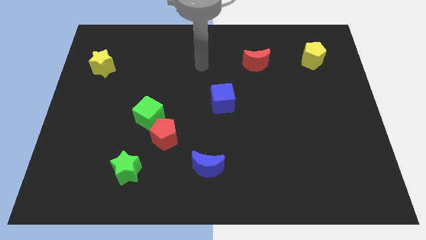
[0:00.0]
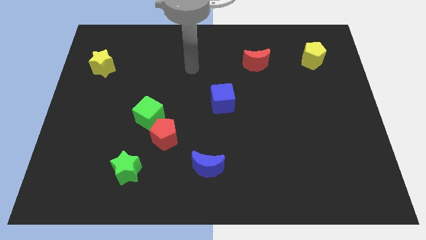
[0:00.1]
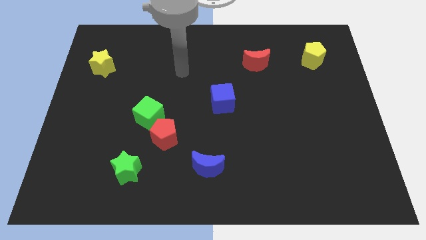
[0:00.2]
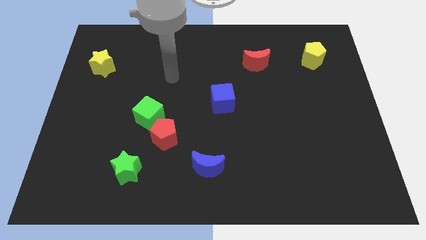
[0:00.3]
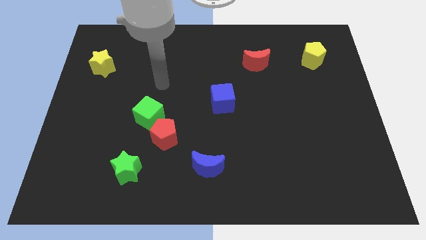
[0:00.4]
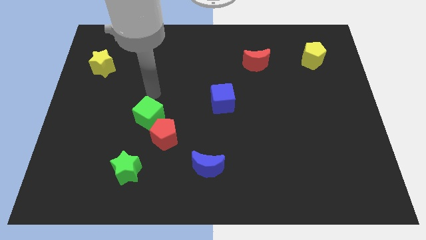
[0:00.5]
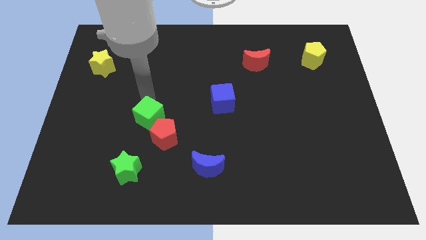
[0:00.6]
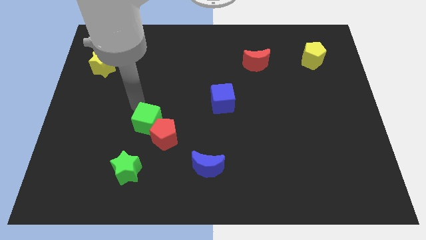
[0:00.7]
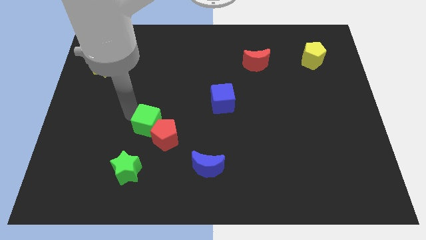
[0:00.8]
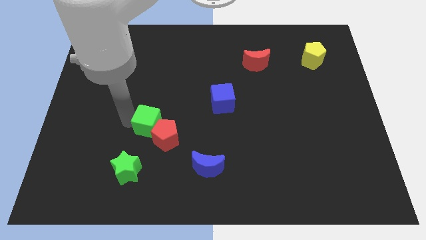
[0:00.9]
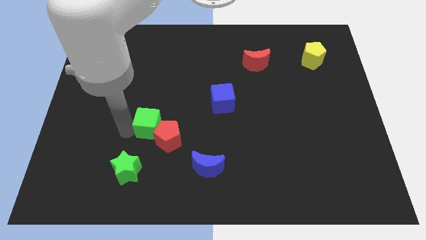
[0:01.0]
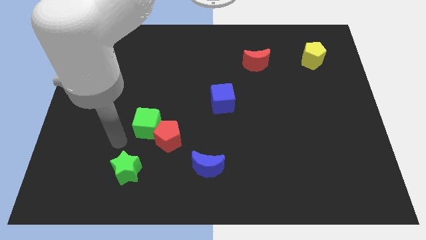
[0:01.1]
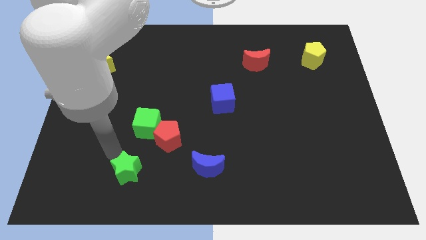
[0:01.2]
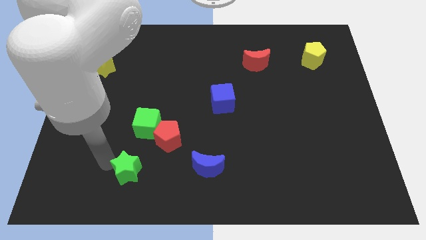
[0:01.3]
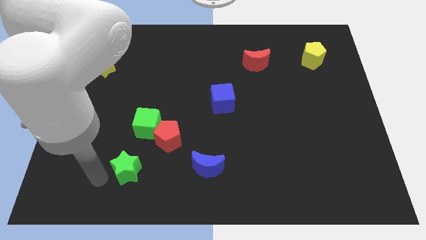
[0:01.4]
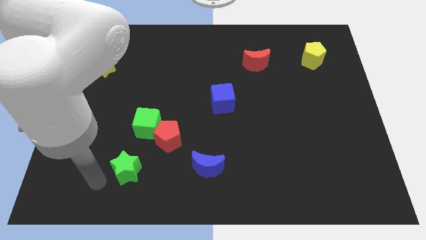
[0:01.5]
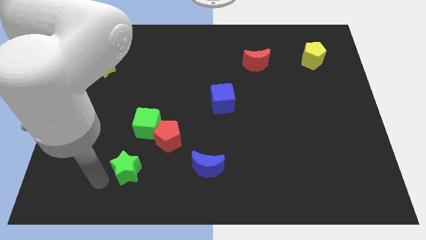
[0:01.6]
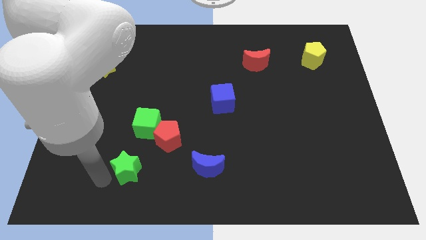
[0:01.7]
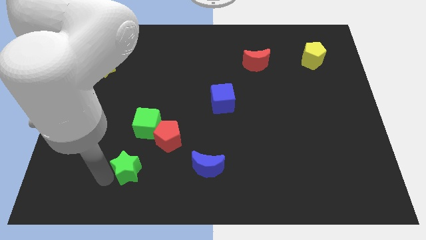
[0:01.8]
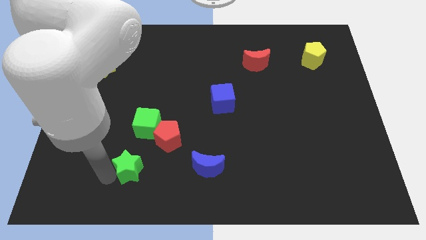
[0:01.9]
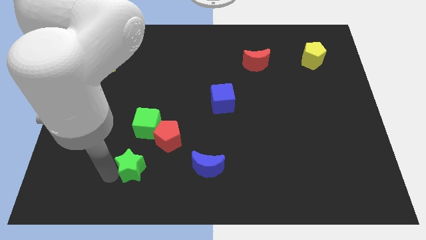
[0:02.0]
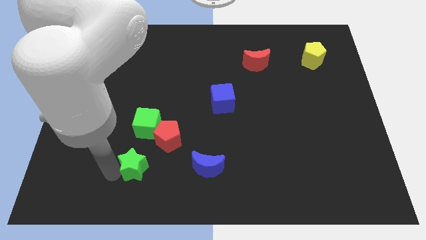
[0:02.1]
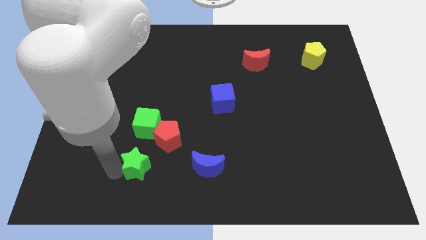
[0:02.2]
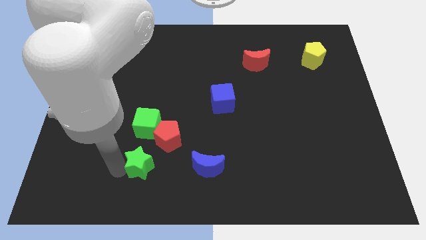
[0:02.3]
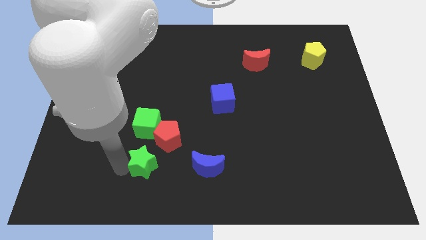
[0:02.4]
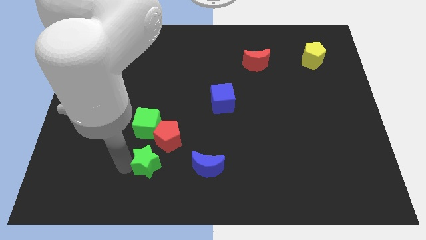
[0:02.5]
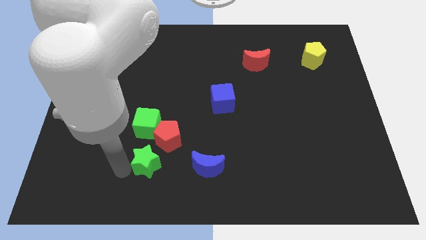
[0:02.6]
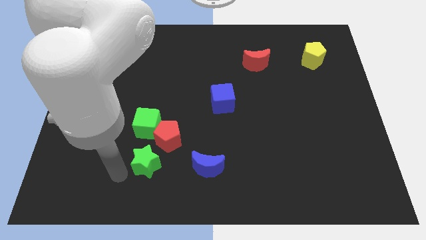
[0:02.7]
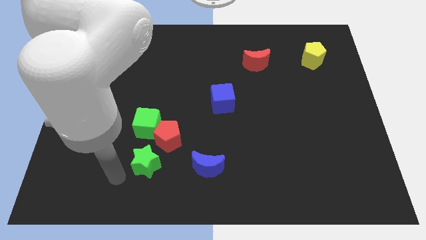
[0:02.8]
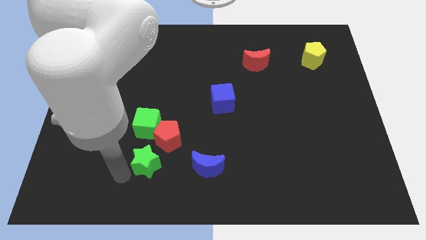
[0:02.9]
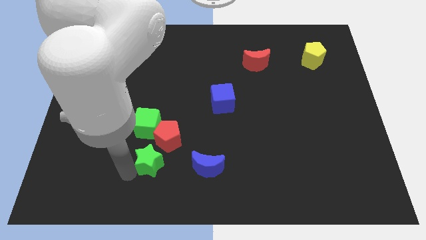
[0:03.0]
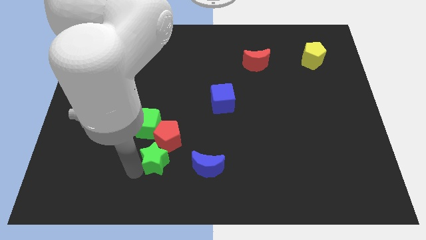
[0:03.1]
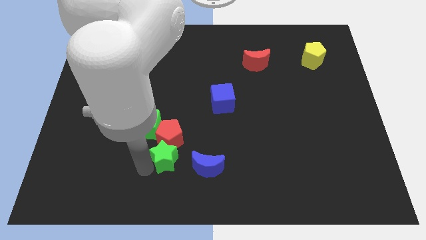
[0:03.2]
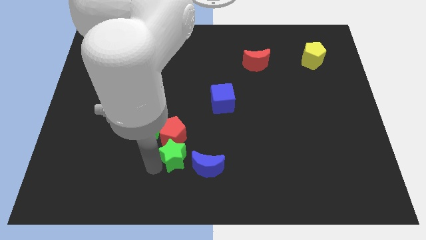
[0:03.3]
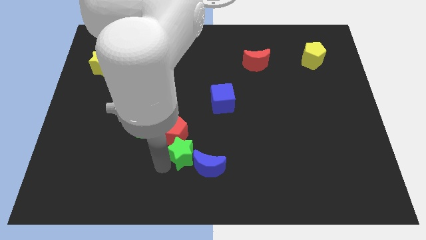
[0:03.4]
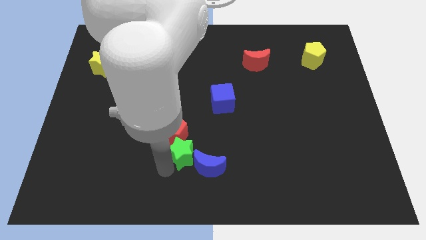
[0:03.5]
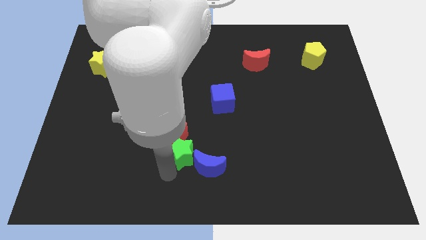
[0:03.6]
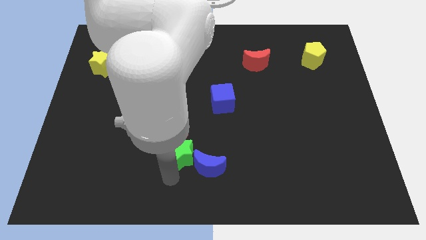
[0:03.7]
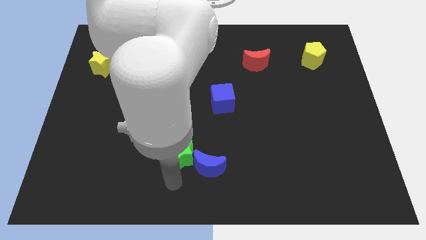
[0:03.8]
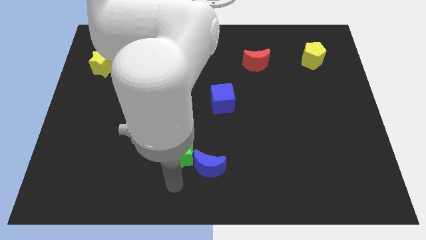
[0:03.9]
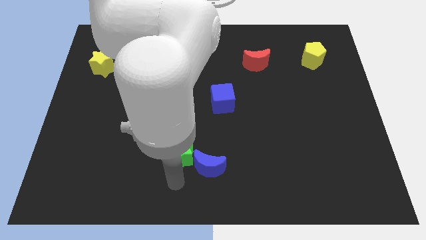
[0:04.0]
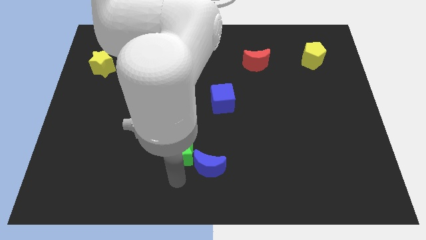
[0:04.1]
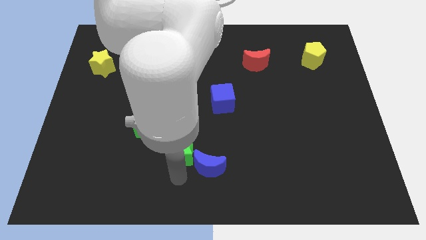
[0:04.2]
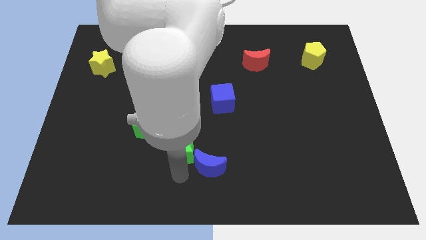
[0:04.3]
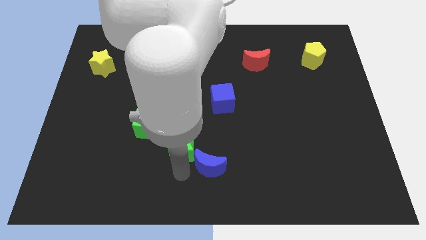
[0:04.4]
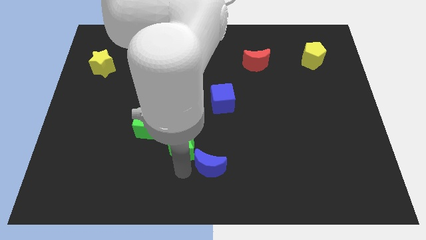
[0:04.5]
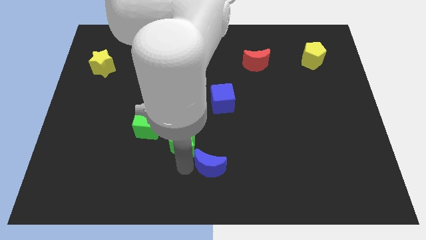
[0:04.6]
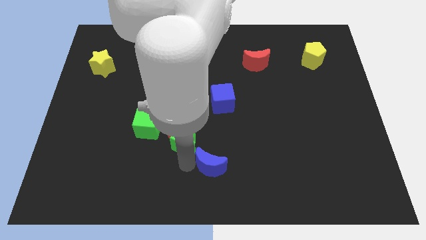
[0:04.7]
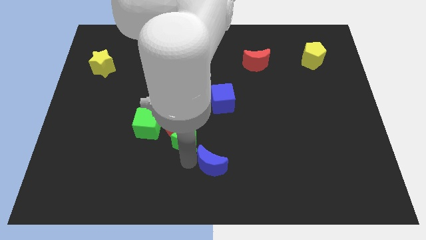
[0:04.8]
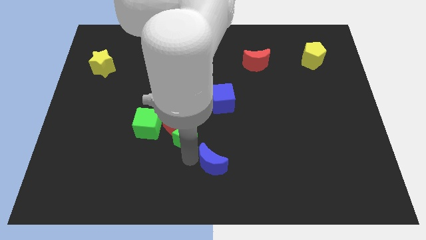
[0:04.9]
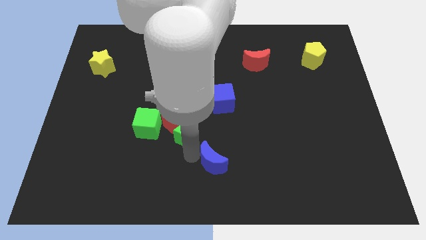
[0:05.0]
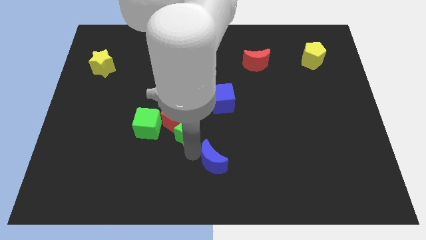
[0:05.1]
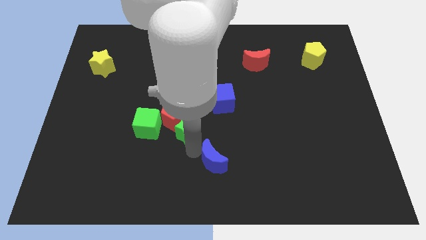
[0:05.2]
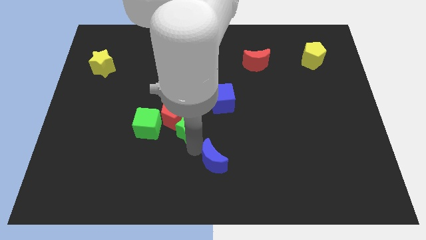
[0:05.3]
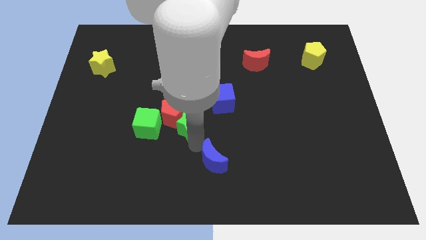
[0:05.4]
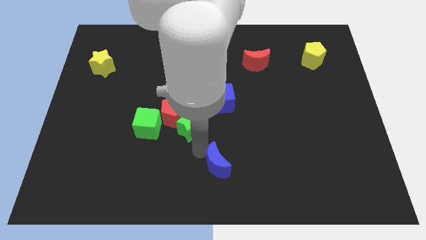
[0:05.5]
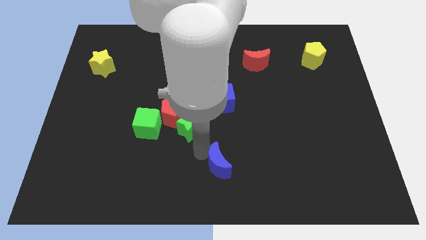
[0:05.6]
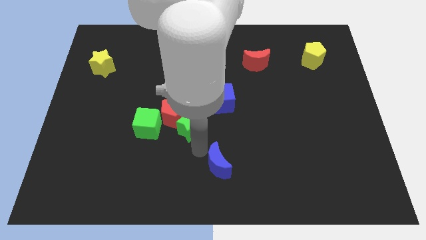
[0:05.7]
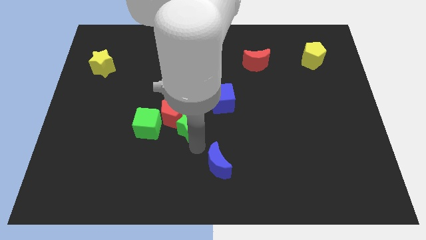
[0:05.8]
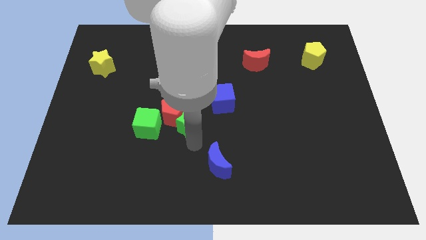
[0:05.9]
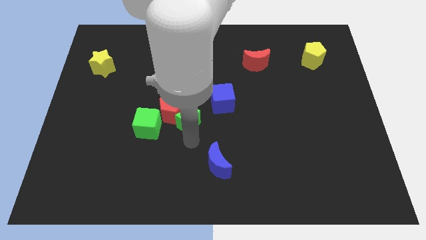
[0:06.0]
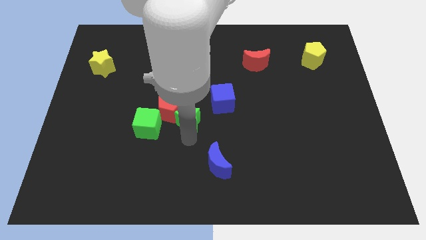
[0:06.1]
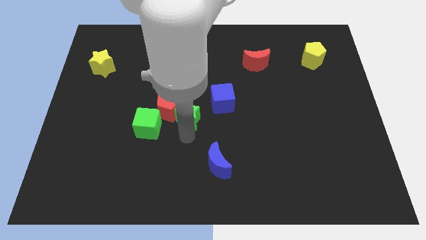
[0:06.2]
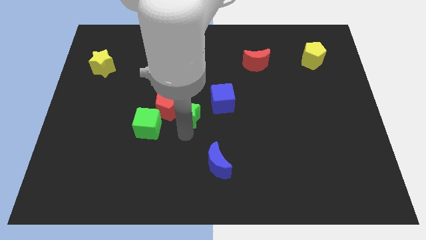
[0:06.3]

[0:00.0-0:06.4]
put the green star left of the blue cube

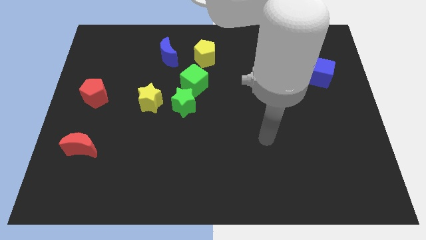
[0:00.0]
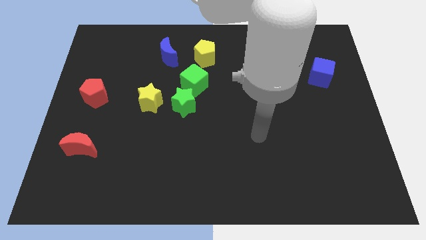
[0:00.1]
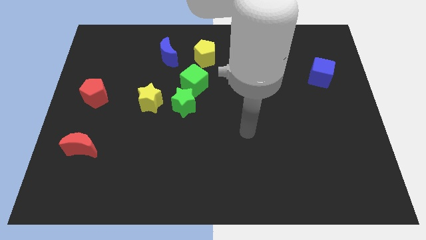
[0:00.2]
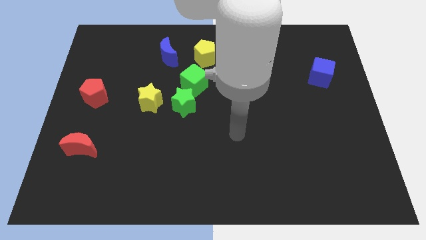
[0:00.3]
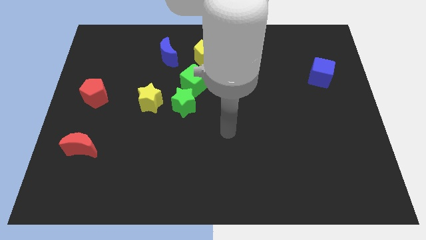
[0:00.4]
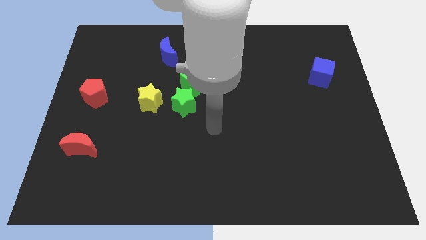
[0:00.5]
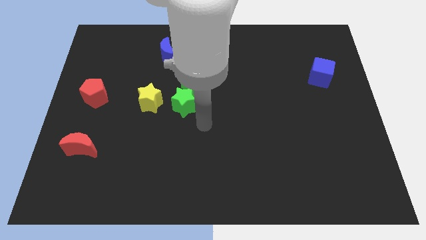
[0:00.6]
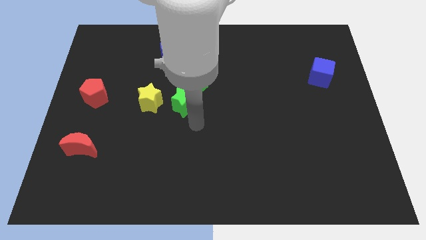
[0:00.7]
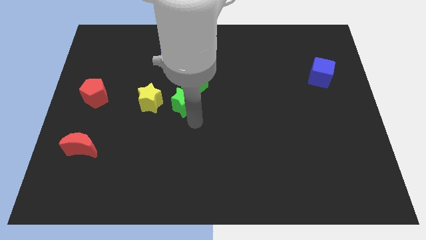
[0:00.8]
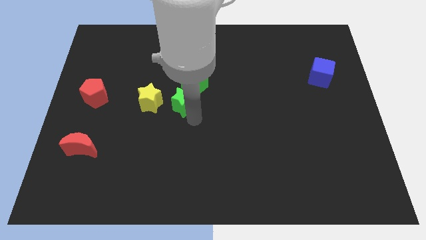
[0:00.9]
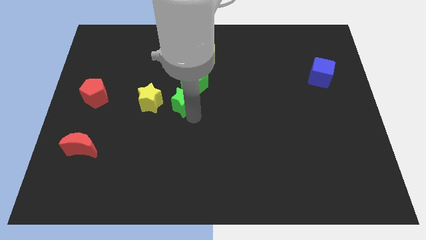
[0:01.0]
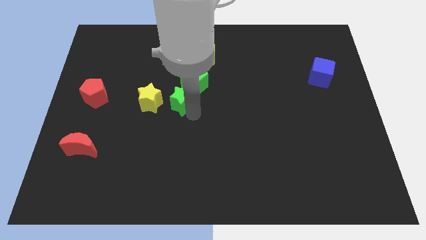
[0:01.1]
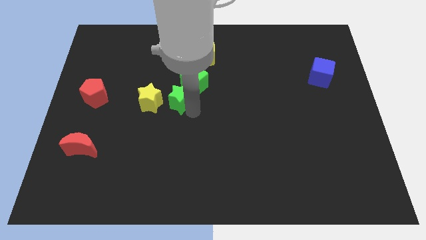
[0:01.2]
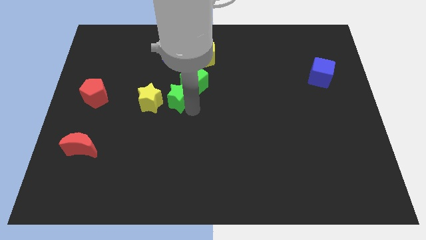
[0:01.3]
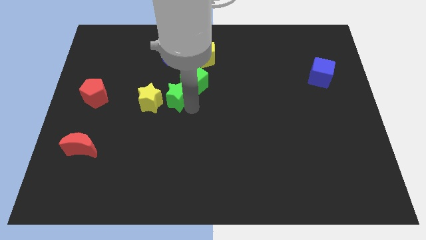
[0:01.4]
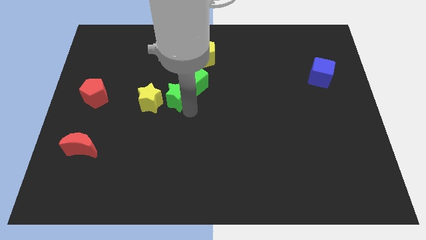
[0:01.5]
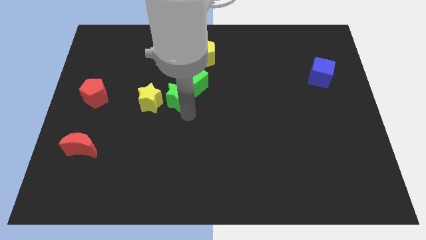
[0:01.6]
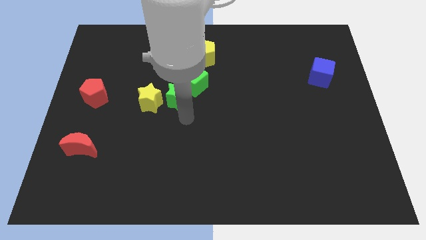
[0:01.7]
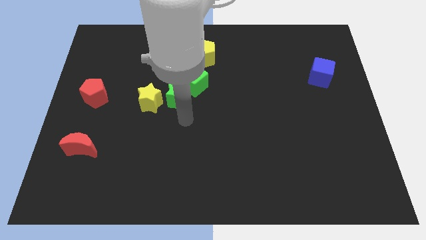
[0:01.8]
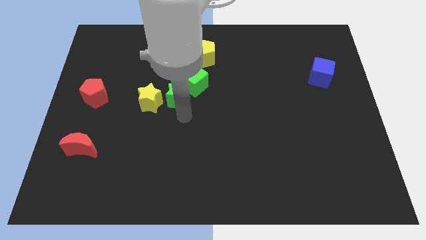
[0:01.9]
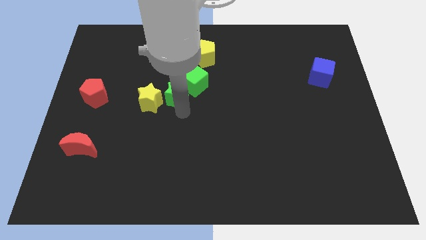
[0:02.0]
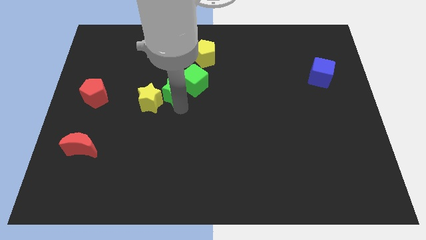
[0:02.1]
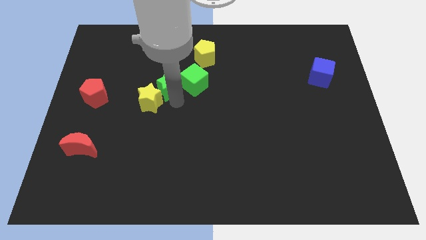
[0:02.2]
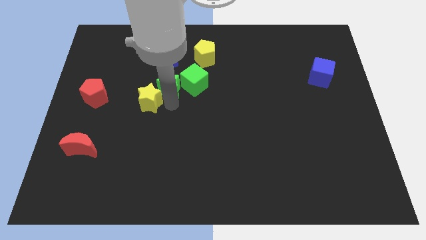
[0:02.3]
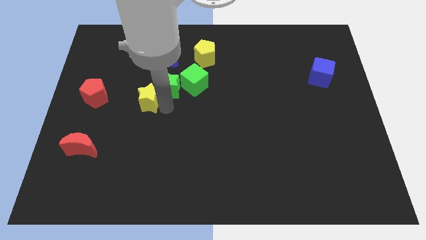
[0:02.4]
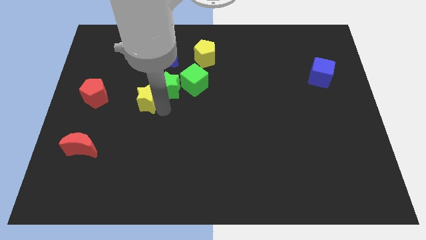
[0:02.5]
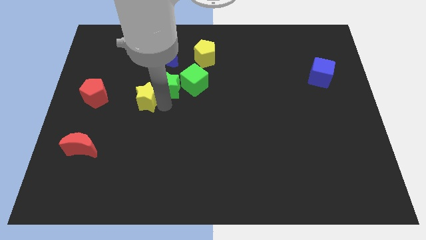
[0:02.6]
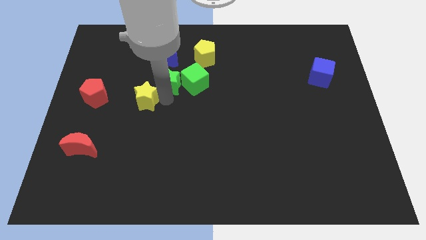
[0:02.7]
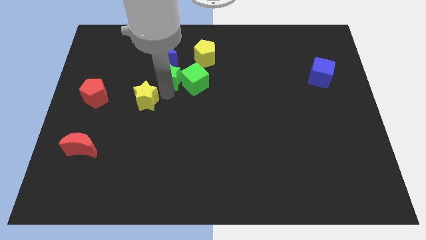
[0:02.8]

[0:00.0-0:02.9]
slide the green star diagonally up and to the left of the green cube
